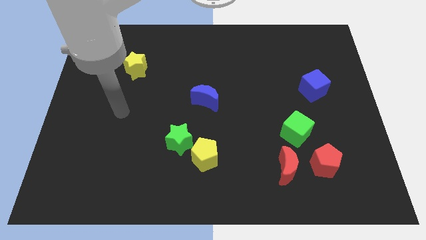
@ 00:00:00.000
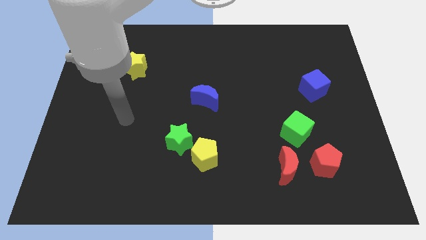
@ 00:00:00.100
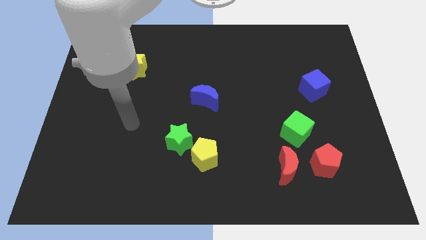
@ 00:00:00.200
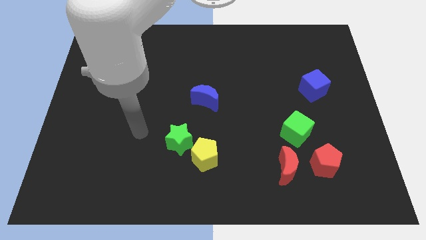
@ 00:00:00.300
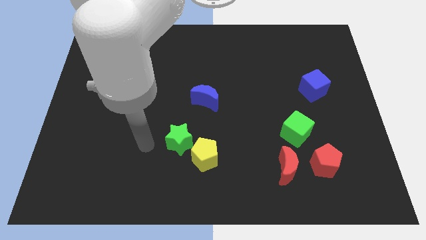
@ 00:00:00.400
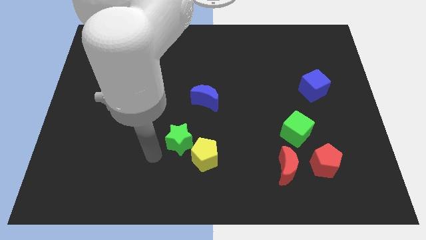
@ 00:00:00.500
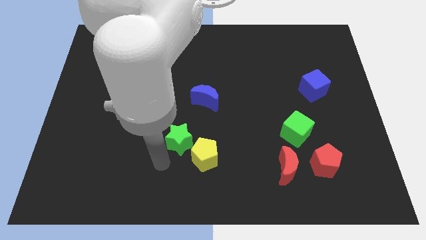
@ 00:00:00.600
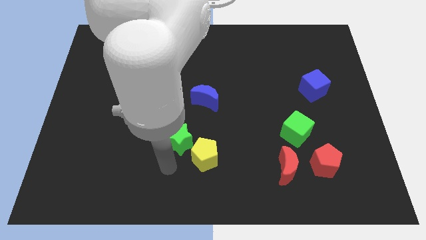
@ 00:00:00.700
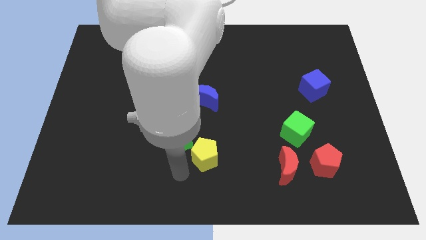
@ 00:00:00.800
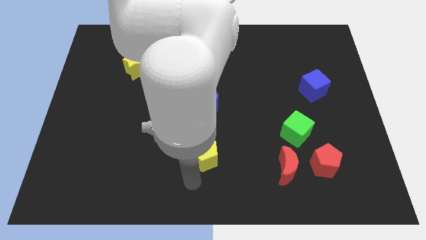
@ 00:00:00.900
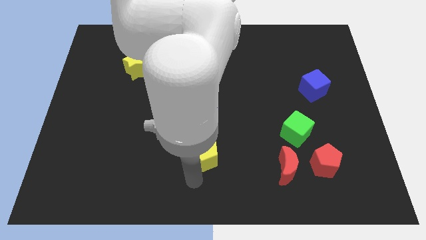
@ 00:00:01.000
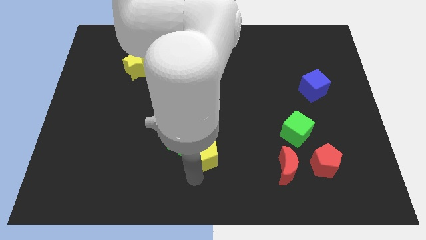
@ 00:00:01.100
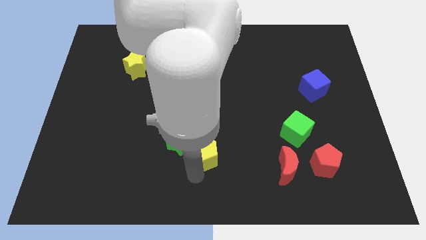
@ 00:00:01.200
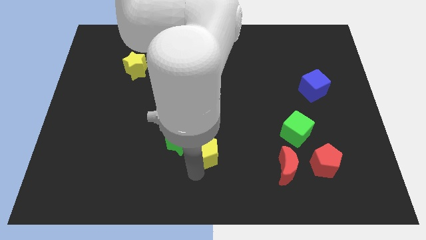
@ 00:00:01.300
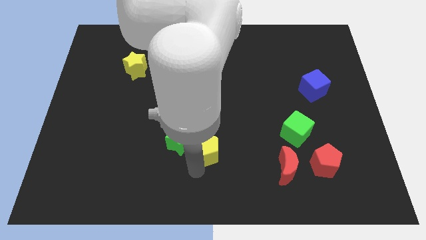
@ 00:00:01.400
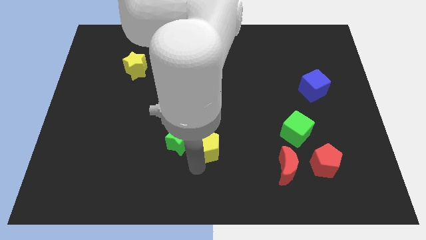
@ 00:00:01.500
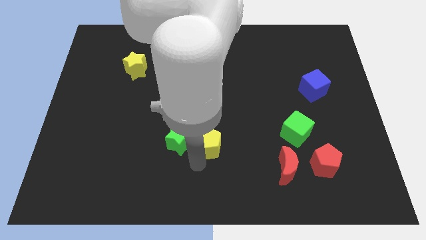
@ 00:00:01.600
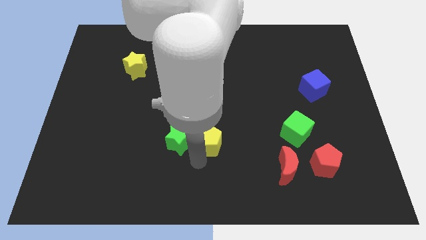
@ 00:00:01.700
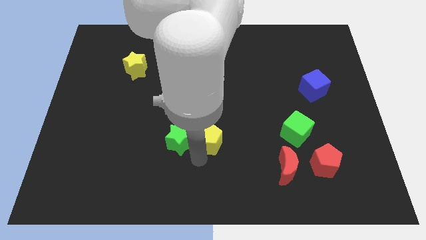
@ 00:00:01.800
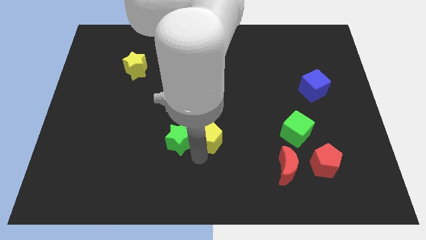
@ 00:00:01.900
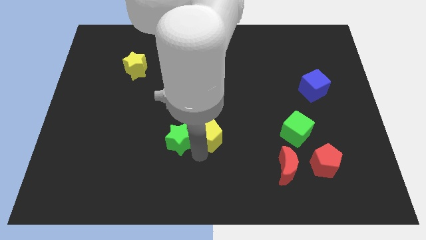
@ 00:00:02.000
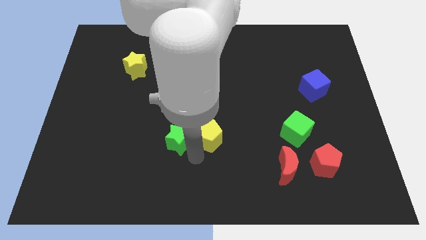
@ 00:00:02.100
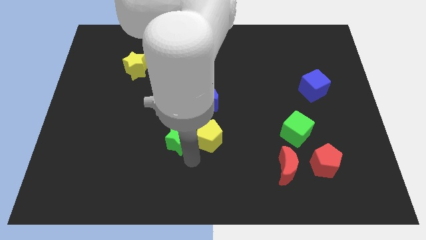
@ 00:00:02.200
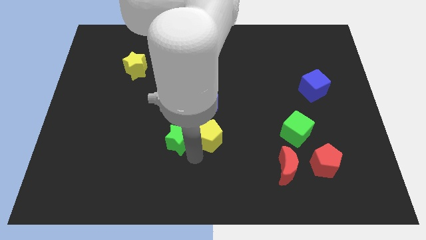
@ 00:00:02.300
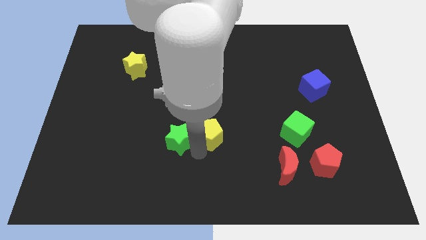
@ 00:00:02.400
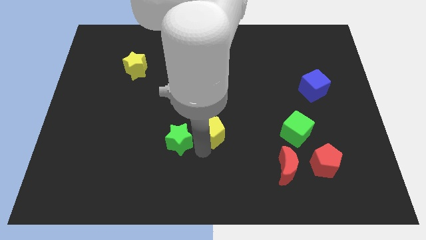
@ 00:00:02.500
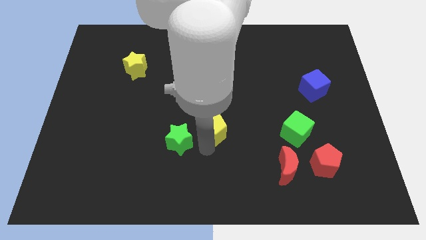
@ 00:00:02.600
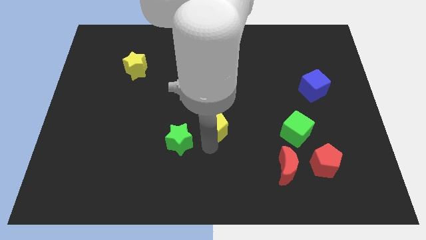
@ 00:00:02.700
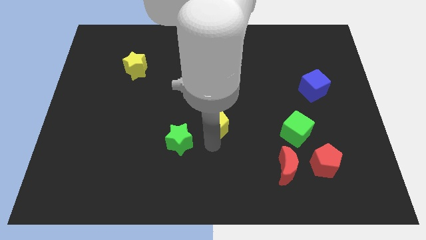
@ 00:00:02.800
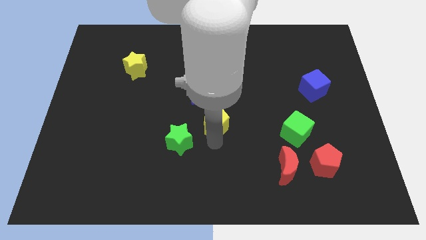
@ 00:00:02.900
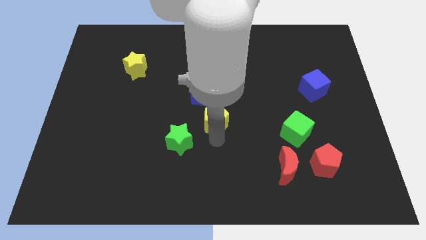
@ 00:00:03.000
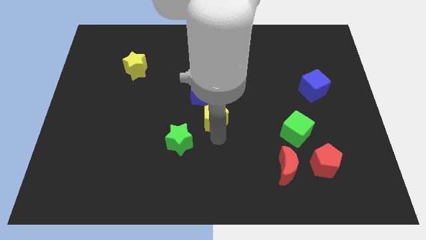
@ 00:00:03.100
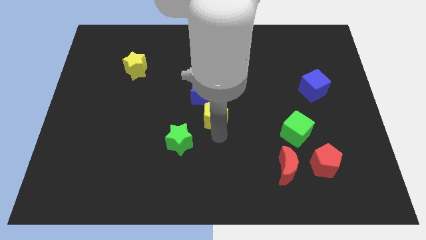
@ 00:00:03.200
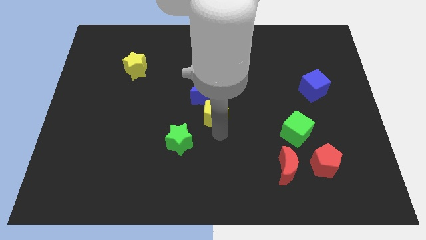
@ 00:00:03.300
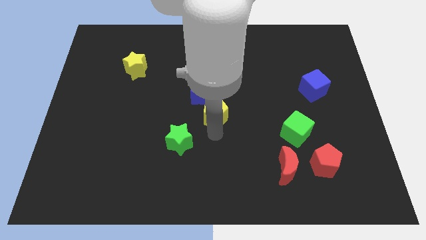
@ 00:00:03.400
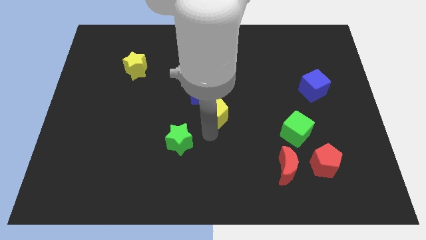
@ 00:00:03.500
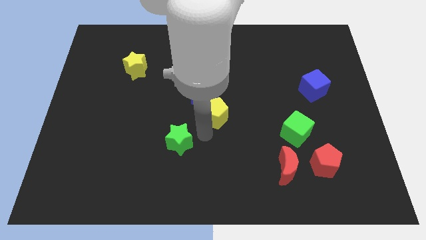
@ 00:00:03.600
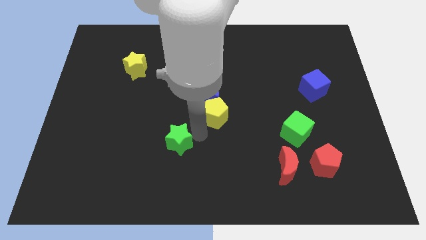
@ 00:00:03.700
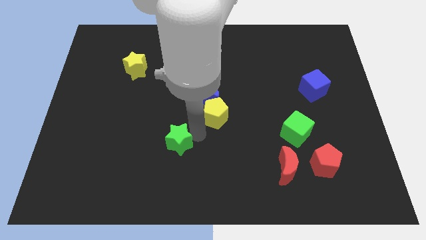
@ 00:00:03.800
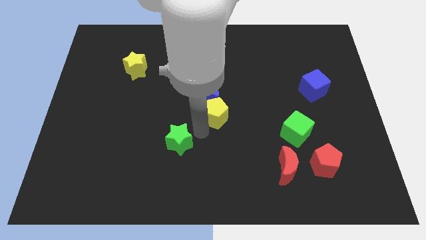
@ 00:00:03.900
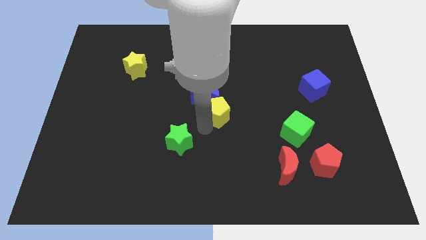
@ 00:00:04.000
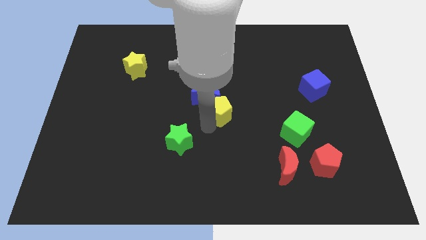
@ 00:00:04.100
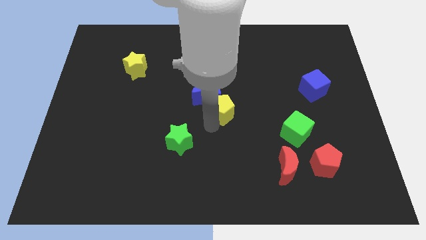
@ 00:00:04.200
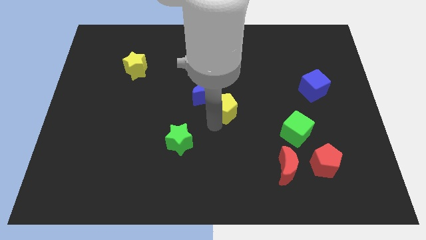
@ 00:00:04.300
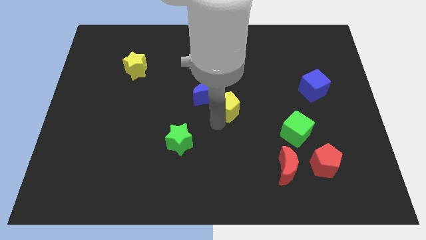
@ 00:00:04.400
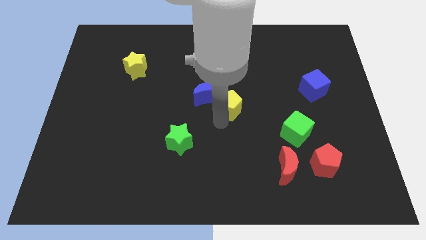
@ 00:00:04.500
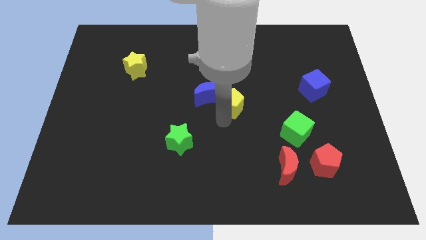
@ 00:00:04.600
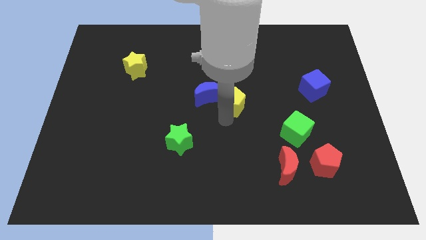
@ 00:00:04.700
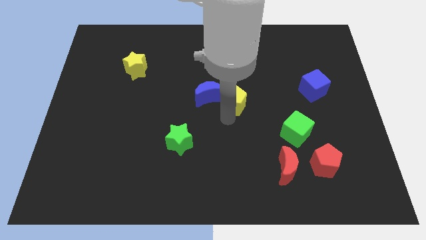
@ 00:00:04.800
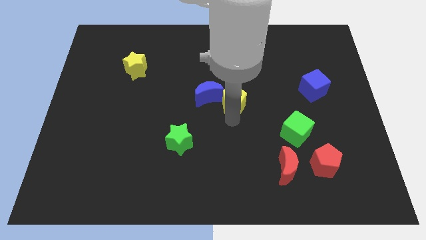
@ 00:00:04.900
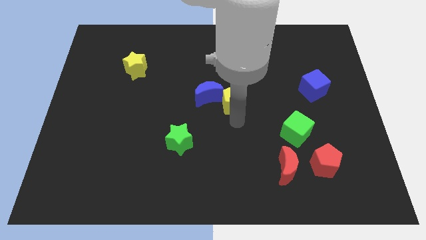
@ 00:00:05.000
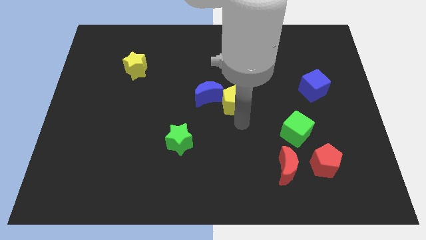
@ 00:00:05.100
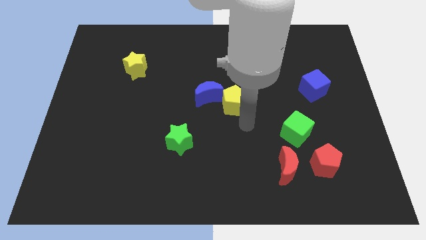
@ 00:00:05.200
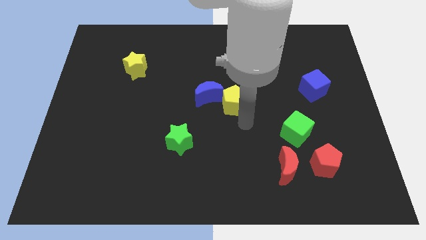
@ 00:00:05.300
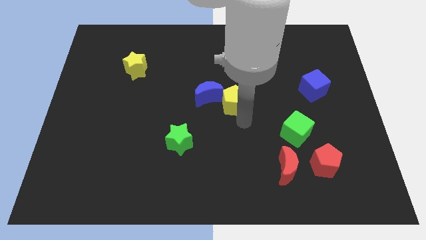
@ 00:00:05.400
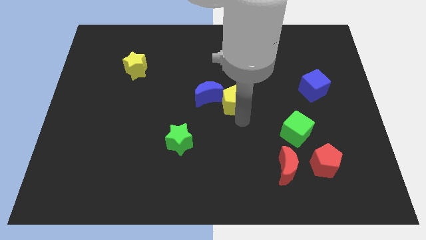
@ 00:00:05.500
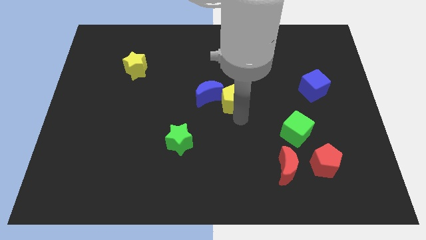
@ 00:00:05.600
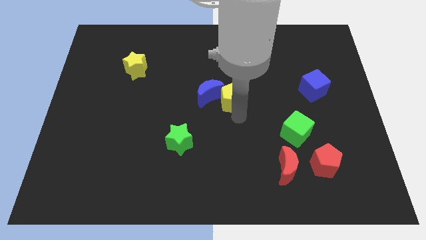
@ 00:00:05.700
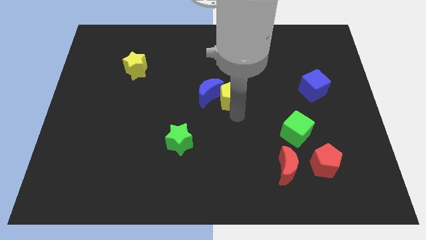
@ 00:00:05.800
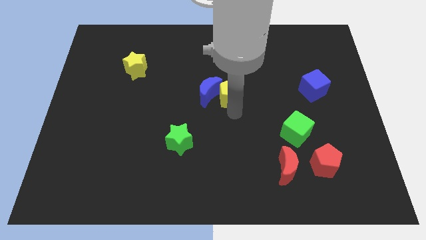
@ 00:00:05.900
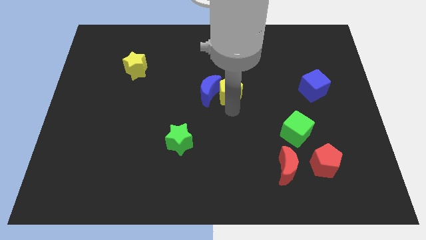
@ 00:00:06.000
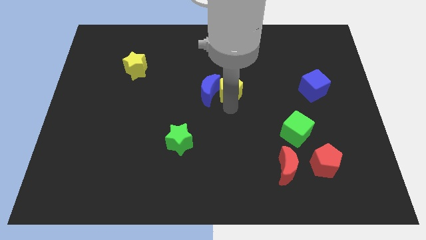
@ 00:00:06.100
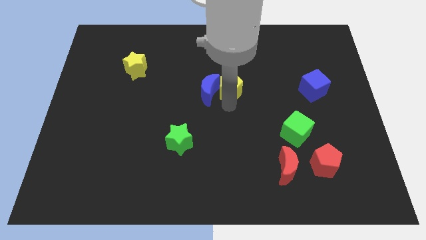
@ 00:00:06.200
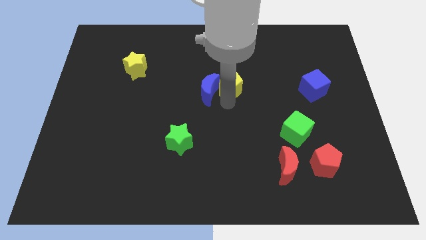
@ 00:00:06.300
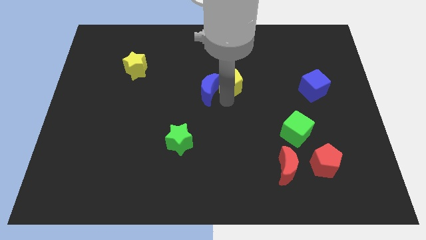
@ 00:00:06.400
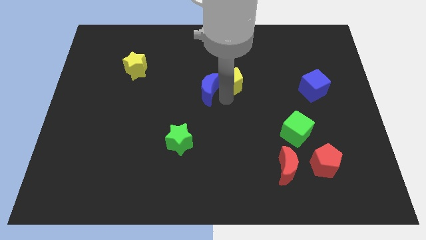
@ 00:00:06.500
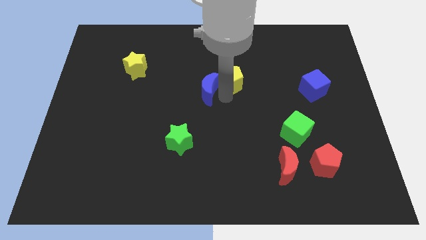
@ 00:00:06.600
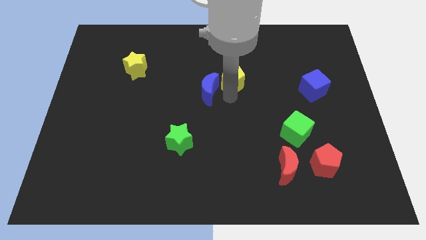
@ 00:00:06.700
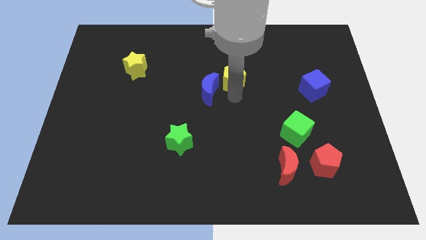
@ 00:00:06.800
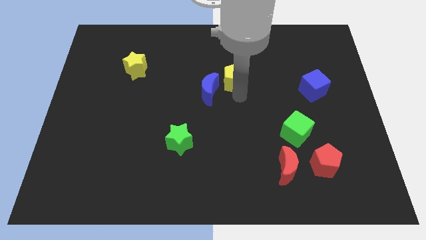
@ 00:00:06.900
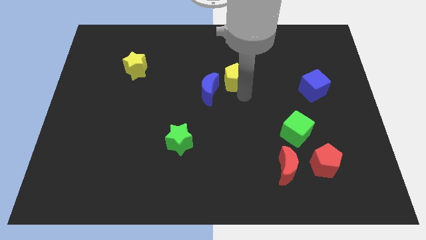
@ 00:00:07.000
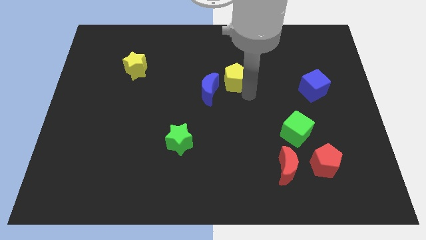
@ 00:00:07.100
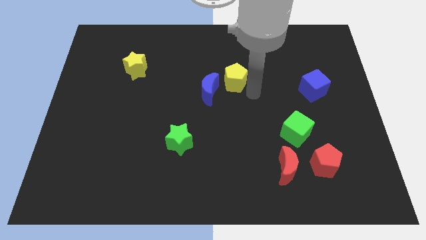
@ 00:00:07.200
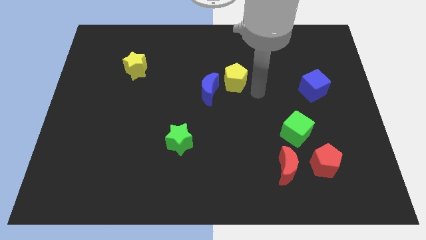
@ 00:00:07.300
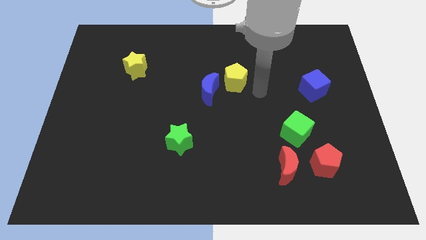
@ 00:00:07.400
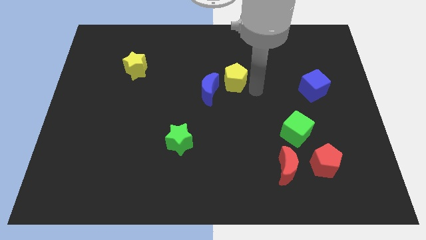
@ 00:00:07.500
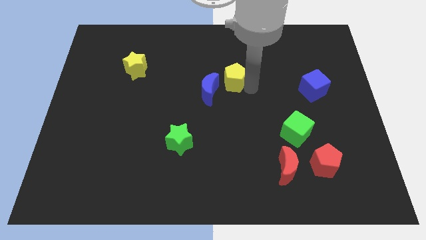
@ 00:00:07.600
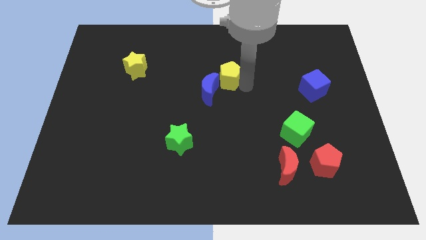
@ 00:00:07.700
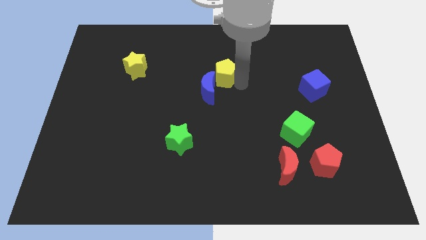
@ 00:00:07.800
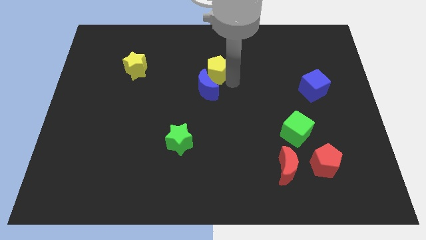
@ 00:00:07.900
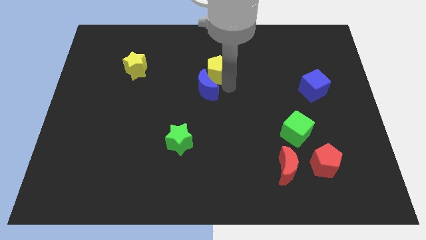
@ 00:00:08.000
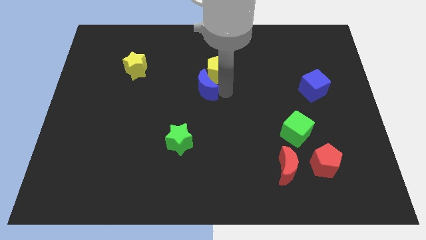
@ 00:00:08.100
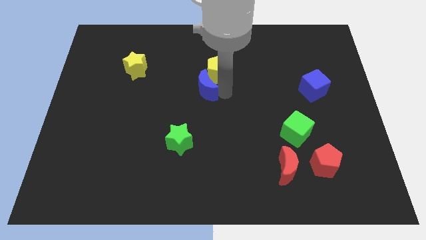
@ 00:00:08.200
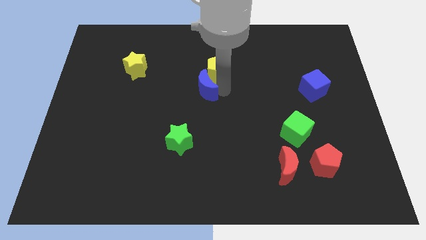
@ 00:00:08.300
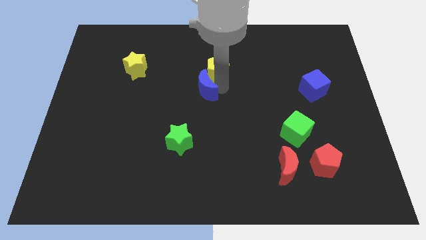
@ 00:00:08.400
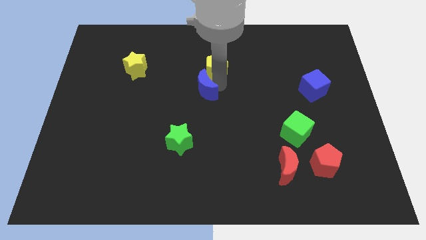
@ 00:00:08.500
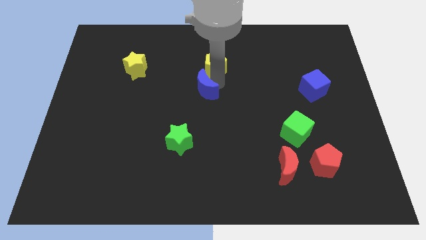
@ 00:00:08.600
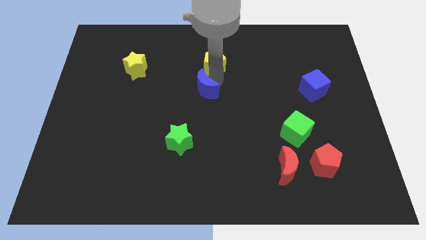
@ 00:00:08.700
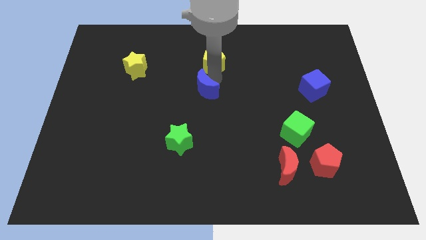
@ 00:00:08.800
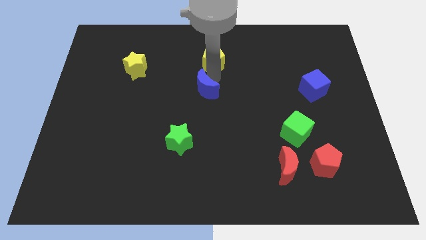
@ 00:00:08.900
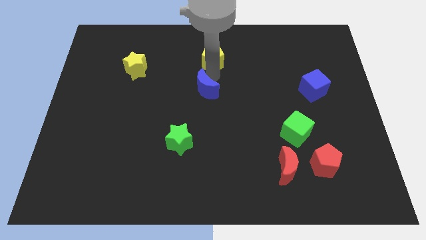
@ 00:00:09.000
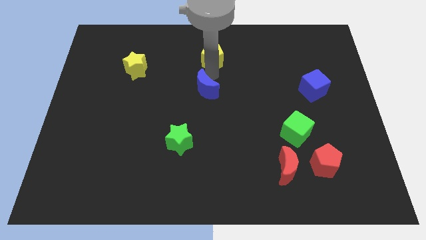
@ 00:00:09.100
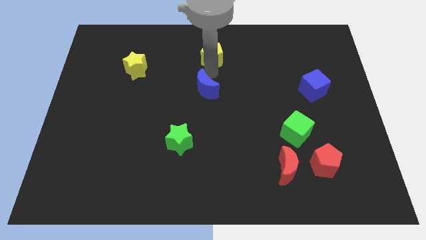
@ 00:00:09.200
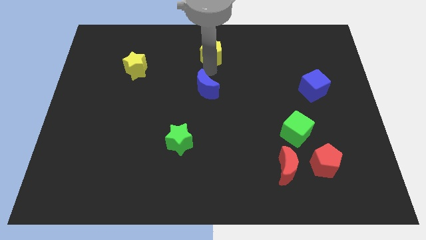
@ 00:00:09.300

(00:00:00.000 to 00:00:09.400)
push the yellow pentagon to the top side
